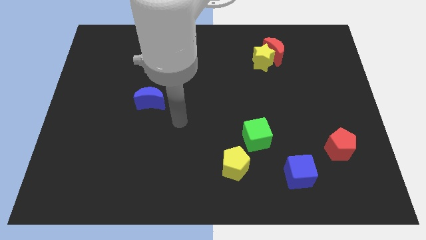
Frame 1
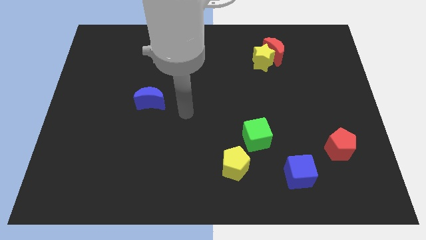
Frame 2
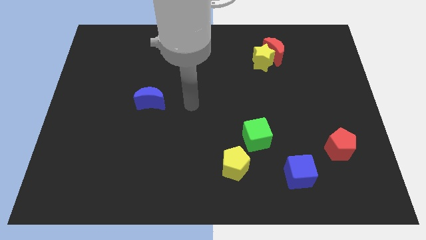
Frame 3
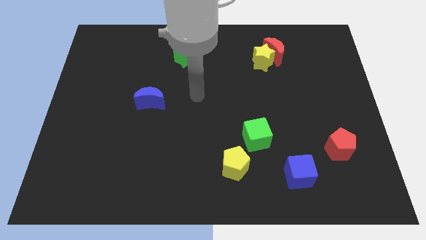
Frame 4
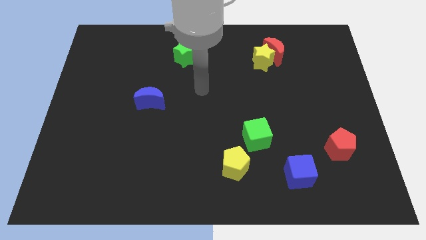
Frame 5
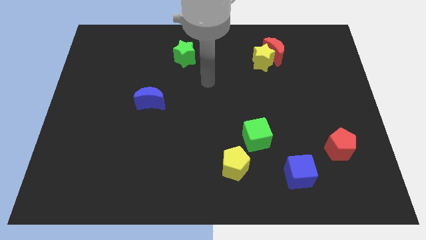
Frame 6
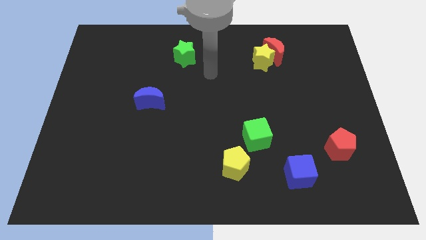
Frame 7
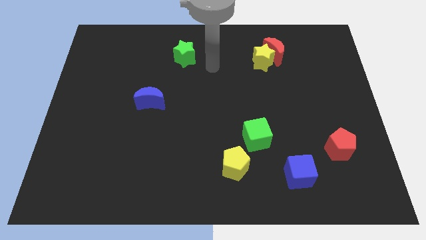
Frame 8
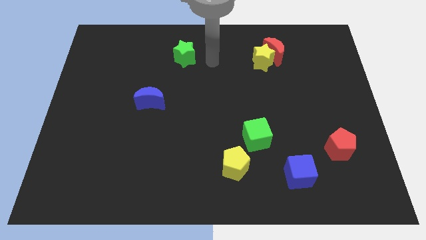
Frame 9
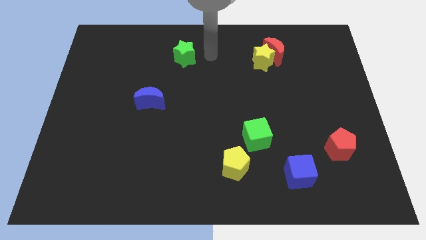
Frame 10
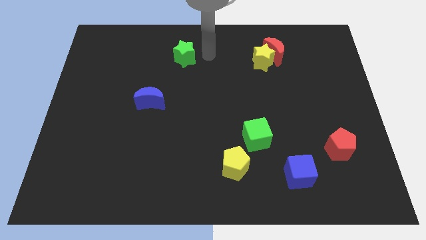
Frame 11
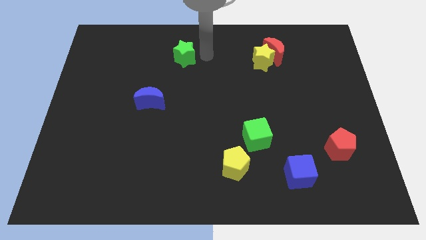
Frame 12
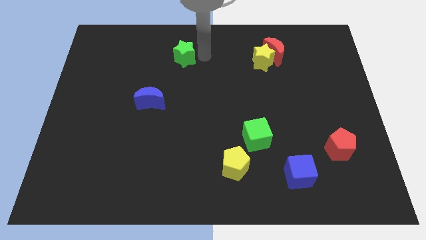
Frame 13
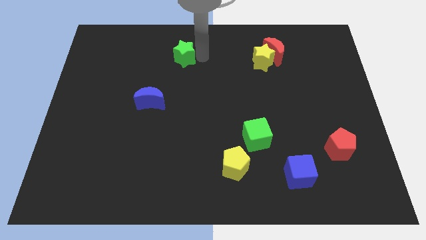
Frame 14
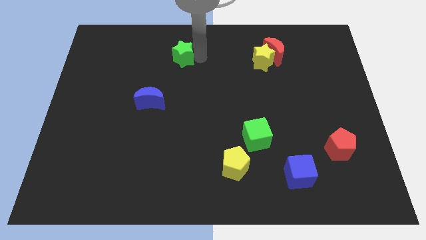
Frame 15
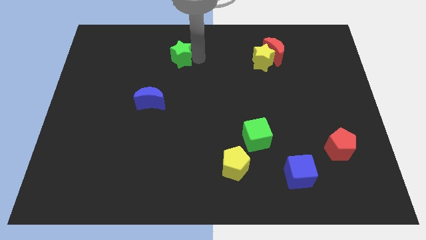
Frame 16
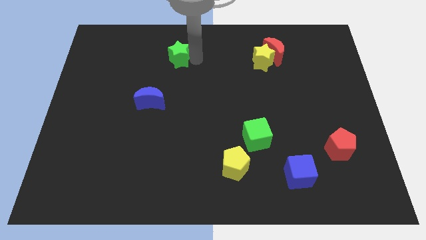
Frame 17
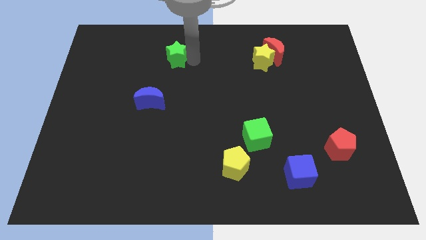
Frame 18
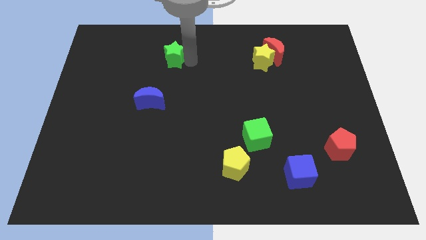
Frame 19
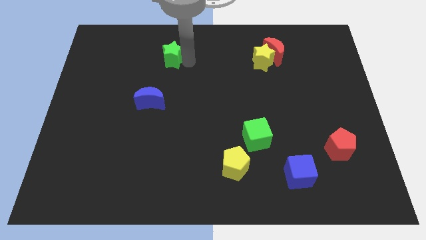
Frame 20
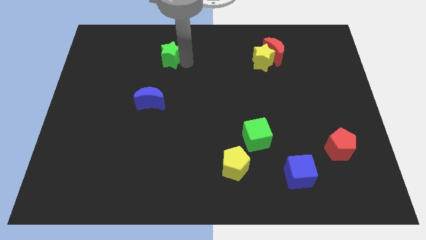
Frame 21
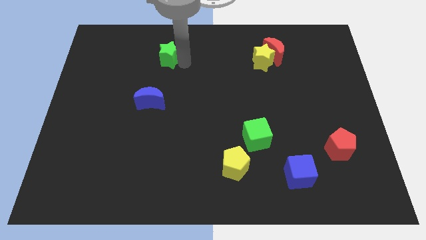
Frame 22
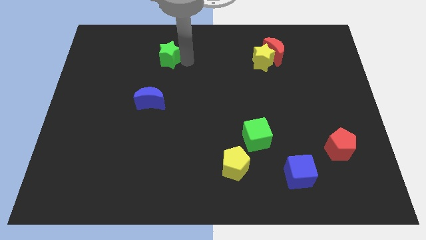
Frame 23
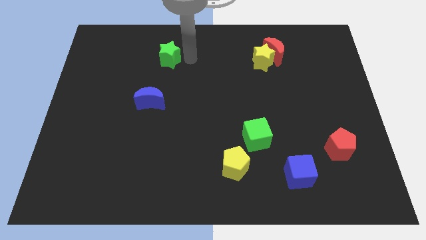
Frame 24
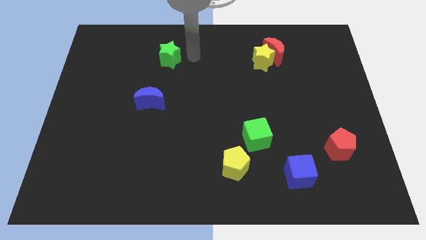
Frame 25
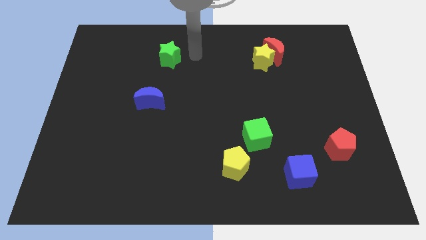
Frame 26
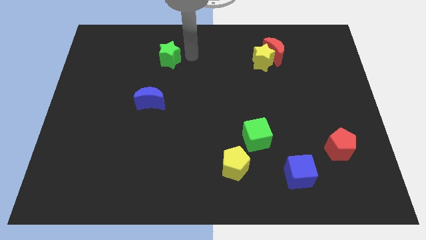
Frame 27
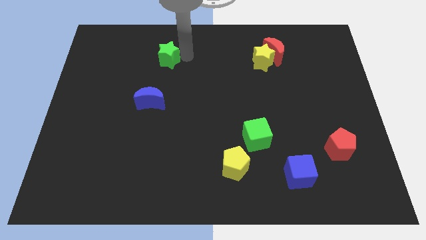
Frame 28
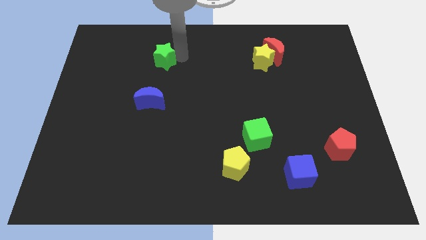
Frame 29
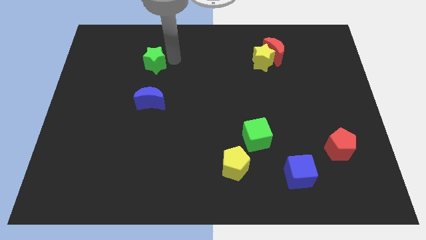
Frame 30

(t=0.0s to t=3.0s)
move the green star somewhat to the left

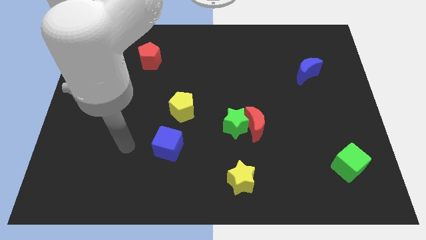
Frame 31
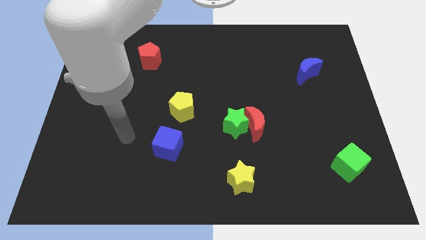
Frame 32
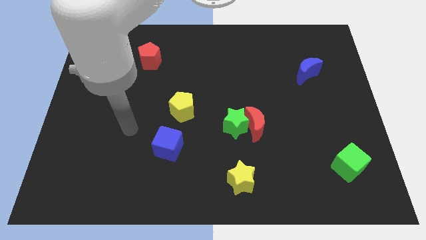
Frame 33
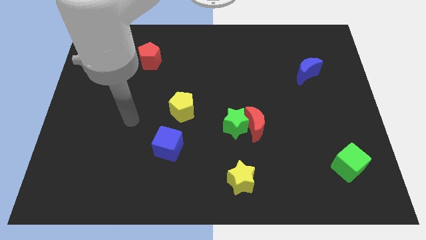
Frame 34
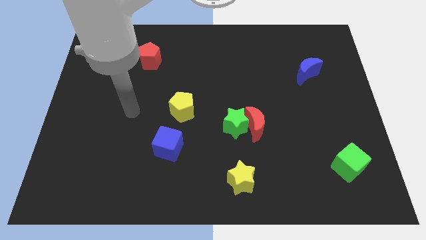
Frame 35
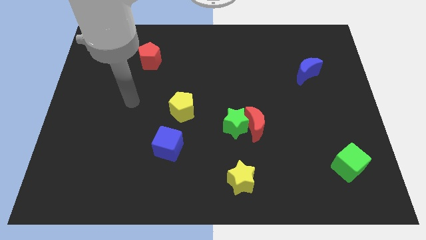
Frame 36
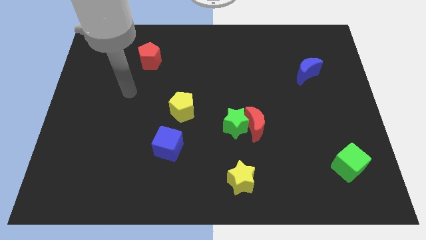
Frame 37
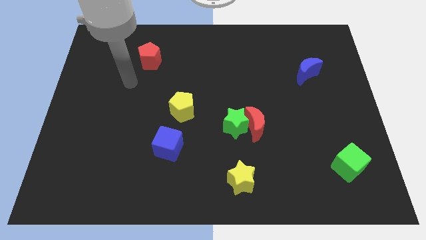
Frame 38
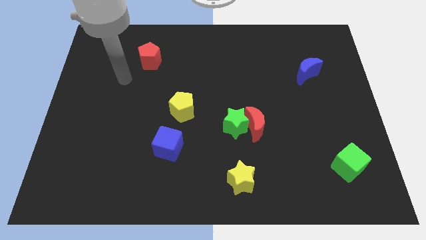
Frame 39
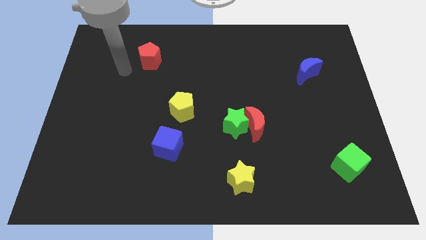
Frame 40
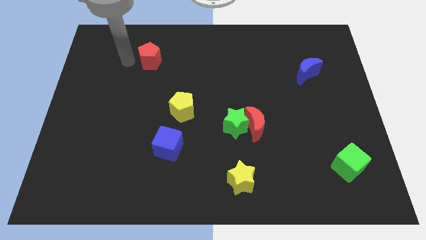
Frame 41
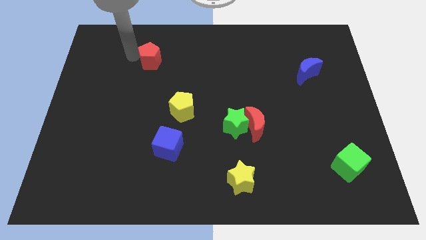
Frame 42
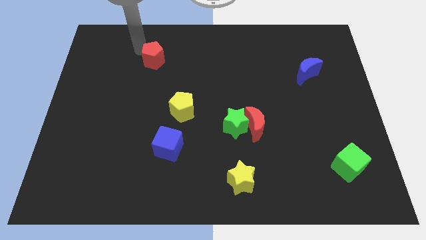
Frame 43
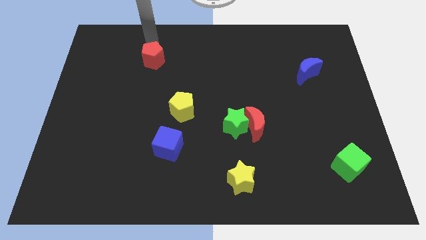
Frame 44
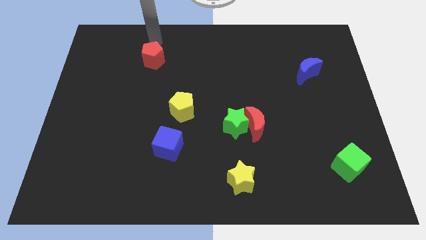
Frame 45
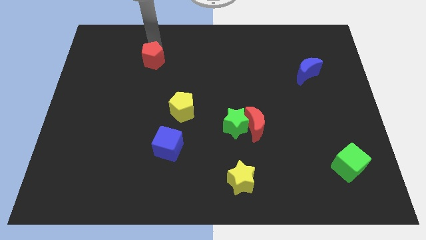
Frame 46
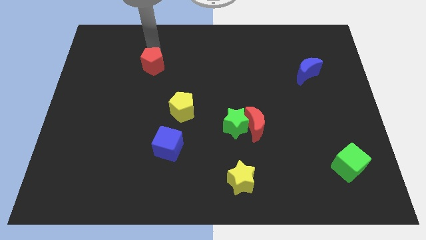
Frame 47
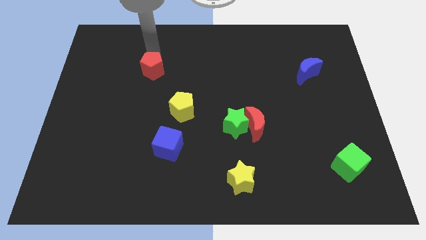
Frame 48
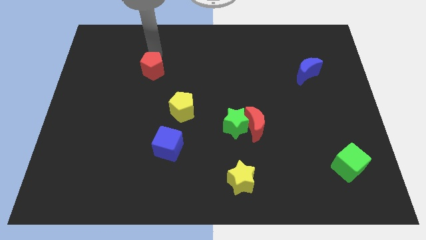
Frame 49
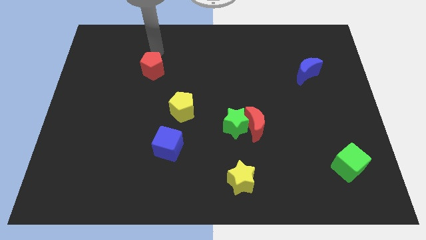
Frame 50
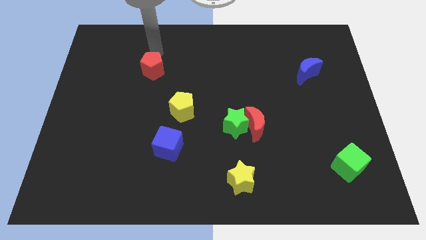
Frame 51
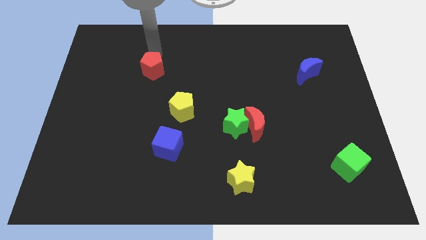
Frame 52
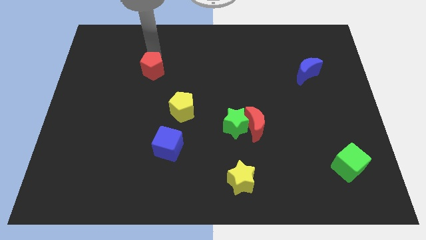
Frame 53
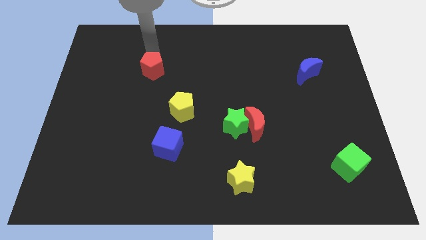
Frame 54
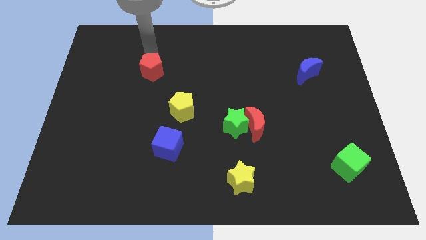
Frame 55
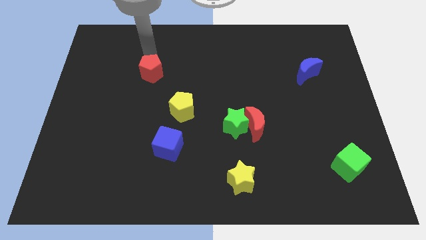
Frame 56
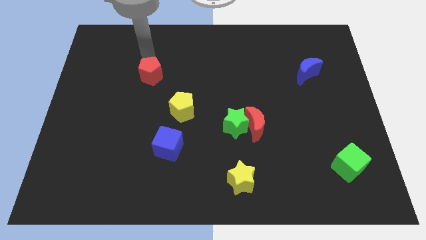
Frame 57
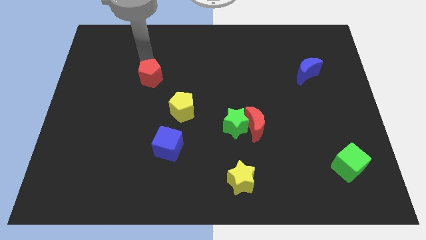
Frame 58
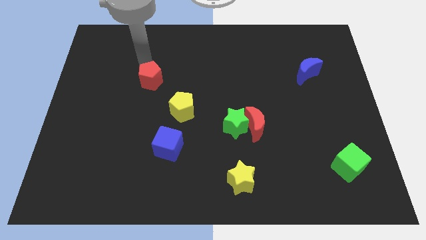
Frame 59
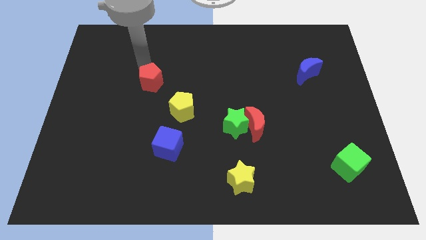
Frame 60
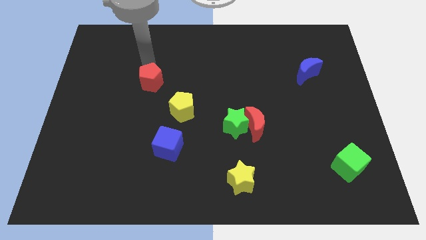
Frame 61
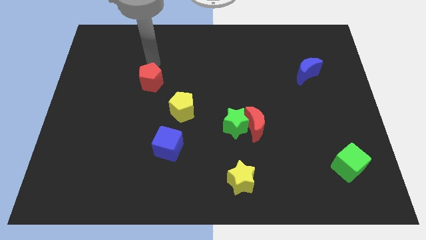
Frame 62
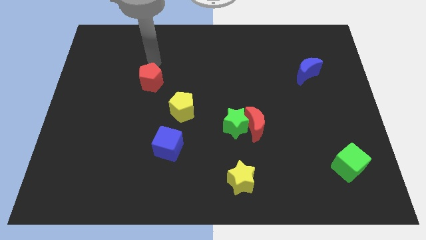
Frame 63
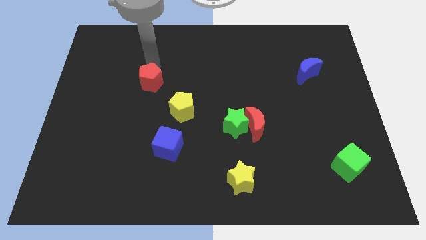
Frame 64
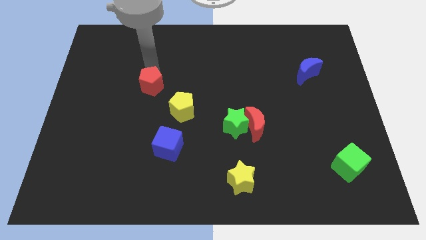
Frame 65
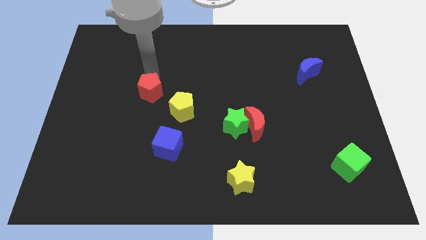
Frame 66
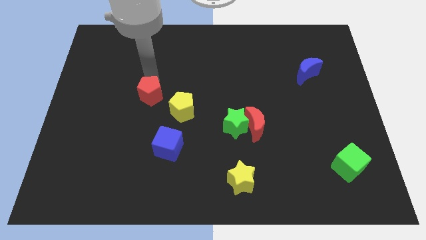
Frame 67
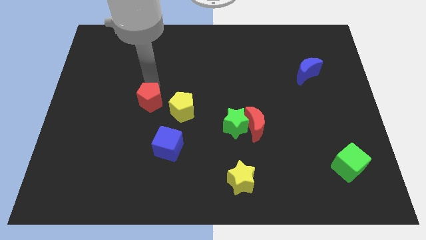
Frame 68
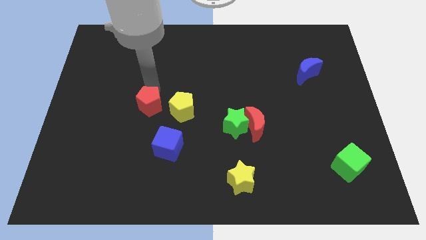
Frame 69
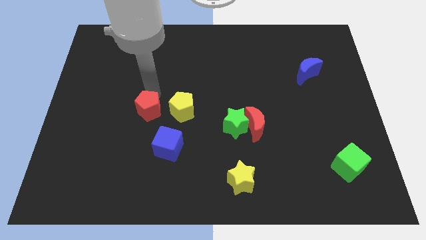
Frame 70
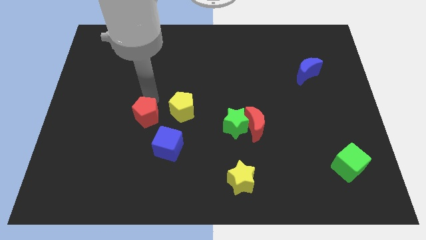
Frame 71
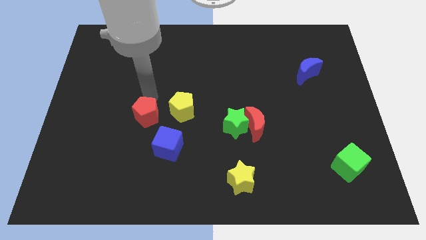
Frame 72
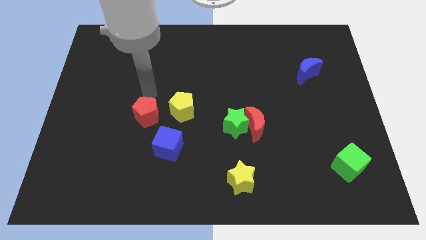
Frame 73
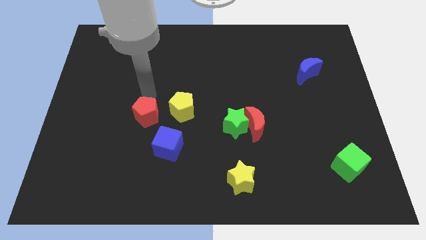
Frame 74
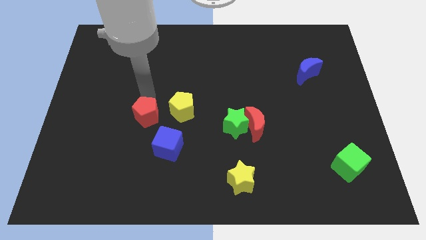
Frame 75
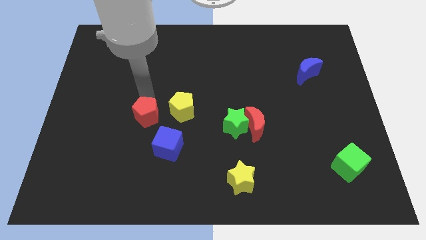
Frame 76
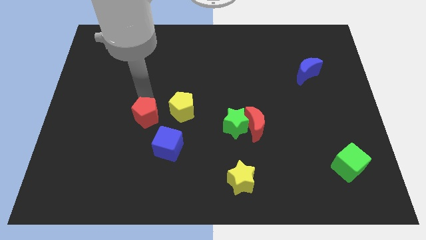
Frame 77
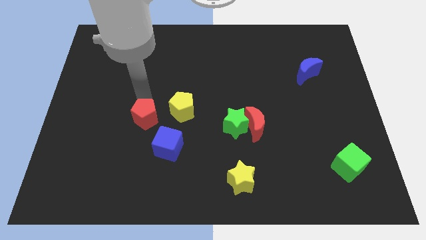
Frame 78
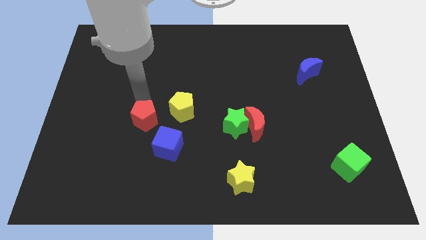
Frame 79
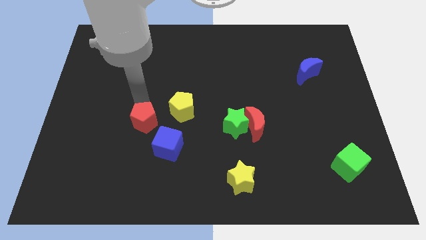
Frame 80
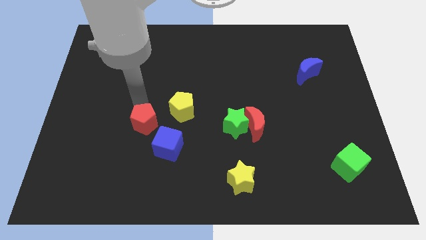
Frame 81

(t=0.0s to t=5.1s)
slide the red pentagon downwards

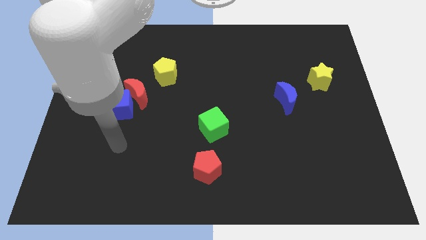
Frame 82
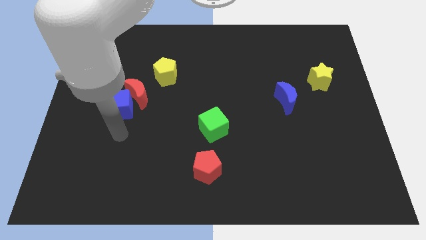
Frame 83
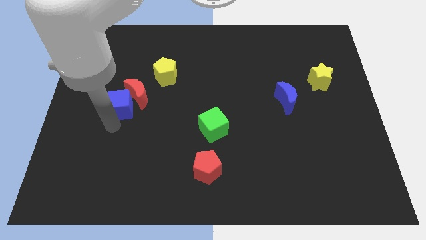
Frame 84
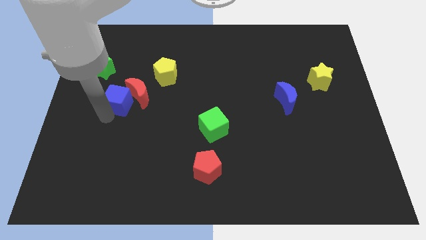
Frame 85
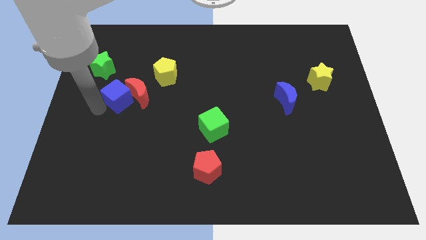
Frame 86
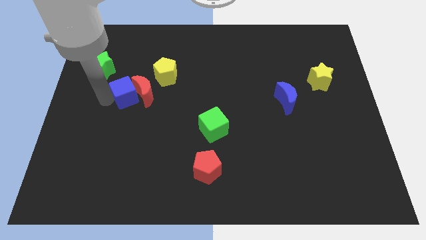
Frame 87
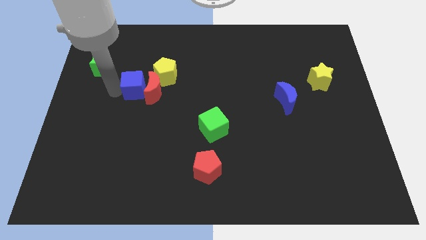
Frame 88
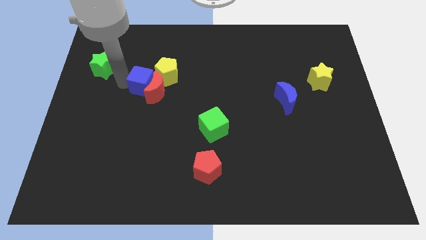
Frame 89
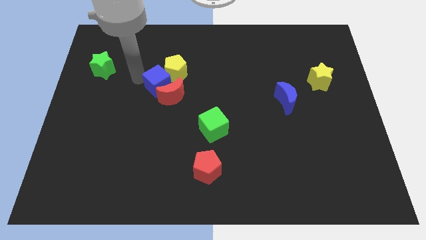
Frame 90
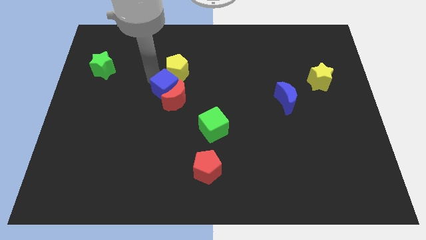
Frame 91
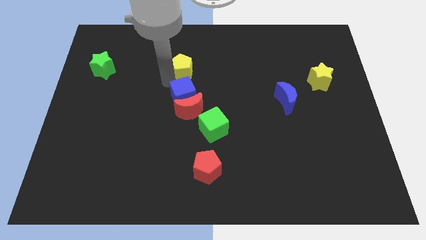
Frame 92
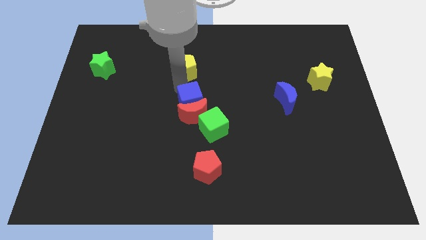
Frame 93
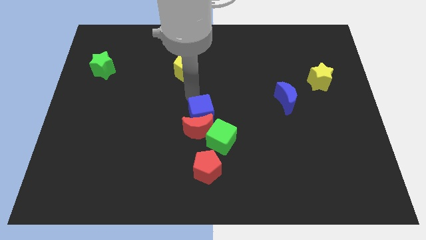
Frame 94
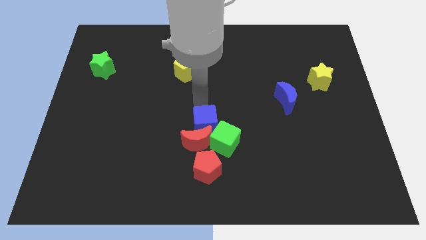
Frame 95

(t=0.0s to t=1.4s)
move the red moon down and to the right diagonally
